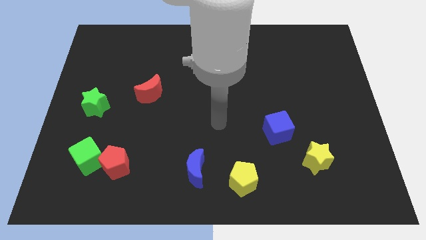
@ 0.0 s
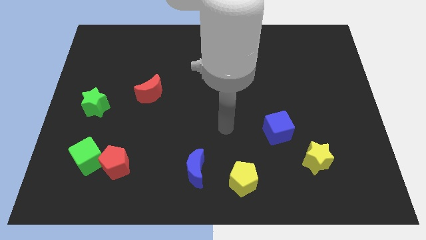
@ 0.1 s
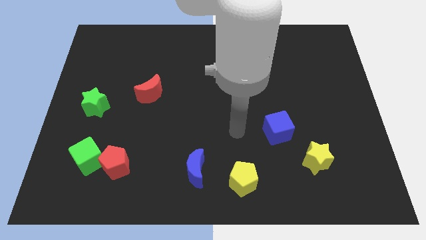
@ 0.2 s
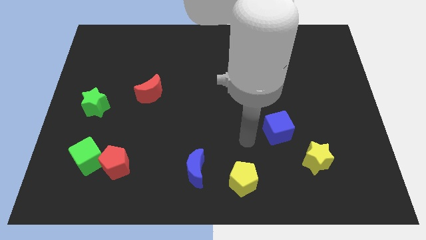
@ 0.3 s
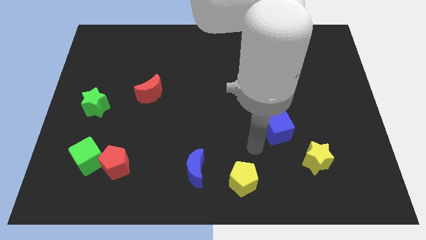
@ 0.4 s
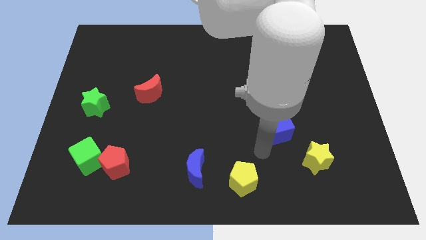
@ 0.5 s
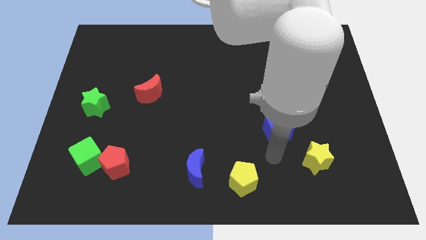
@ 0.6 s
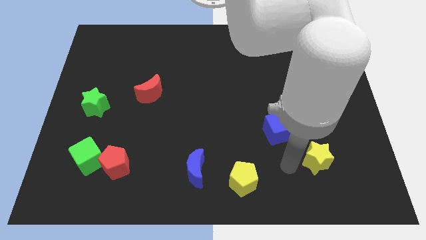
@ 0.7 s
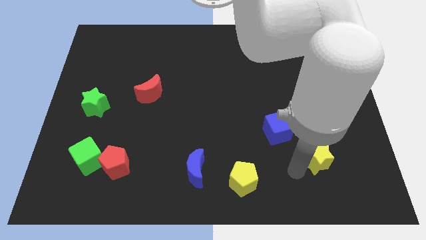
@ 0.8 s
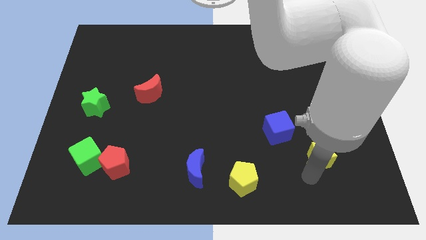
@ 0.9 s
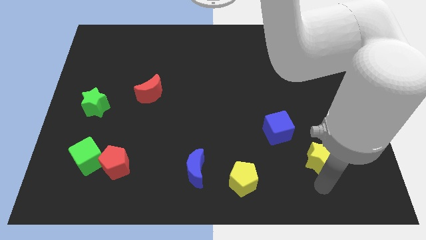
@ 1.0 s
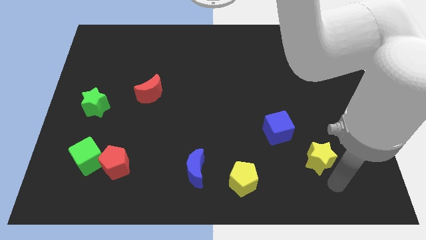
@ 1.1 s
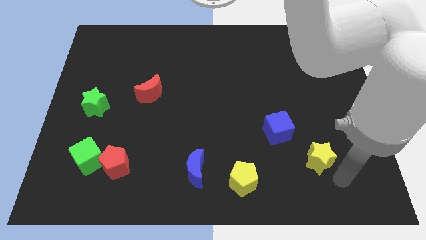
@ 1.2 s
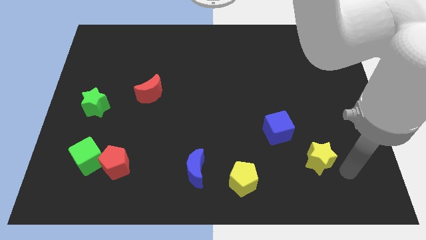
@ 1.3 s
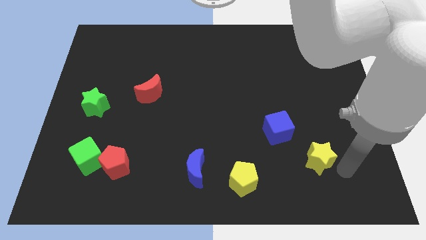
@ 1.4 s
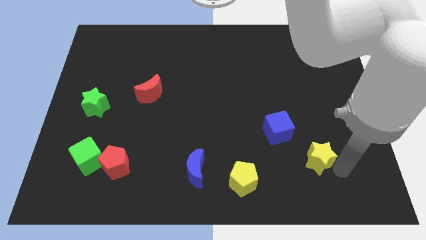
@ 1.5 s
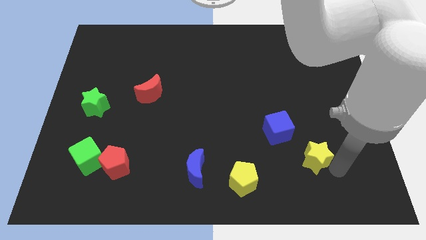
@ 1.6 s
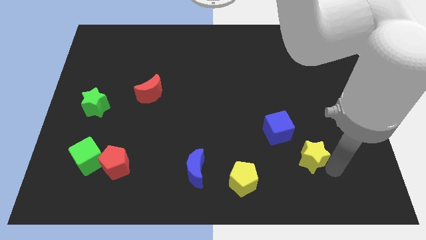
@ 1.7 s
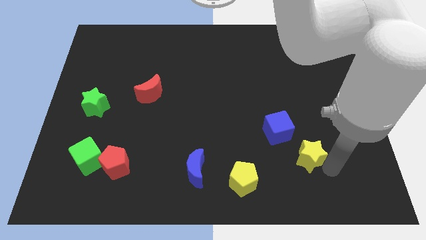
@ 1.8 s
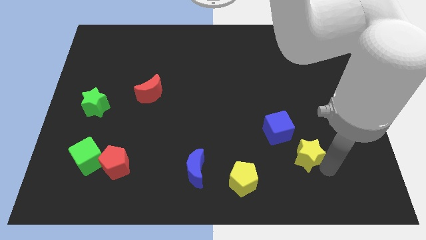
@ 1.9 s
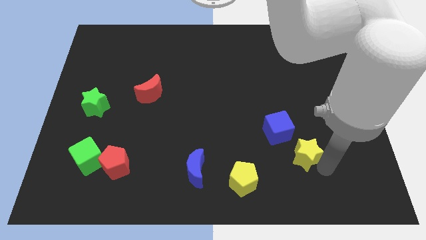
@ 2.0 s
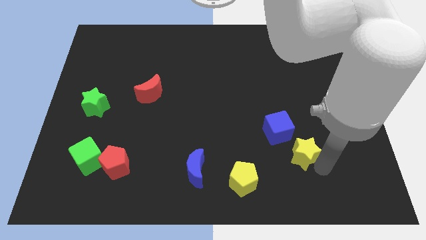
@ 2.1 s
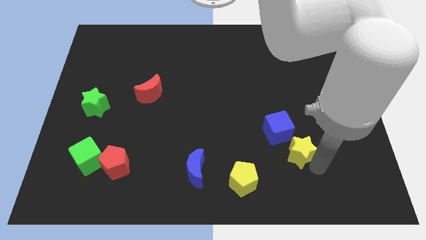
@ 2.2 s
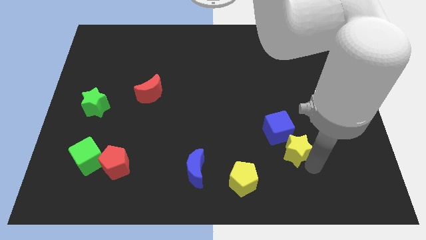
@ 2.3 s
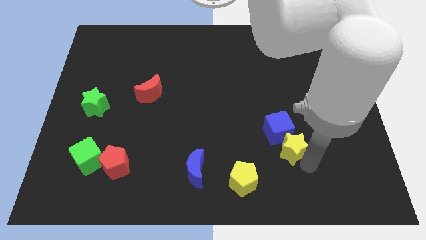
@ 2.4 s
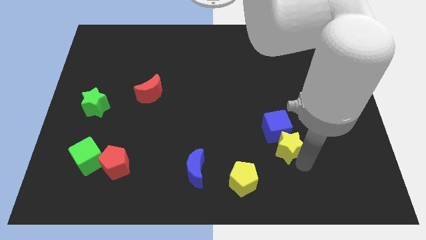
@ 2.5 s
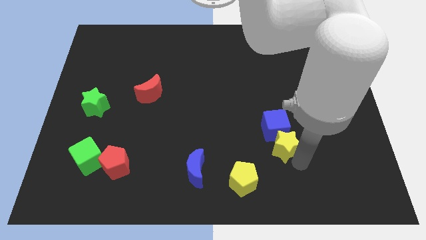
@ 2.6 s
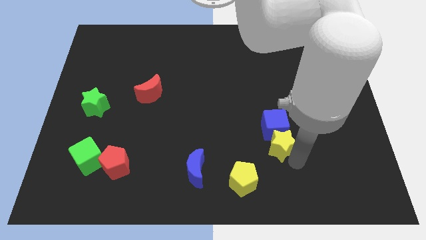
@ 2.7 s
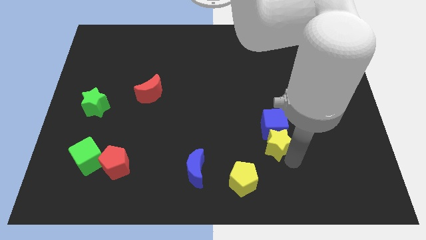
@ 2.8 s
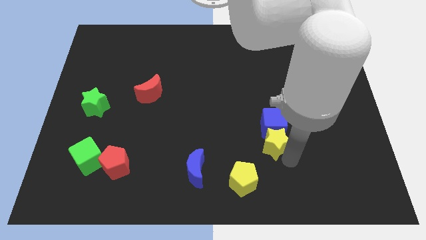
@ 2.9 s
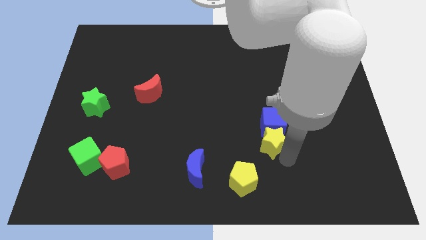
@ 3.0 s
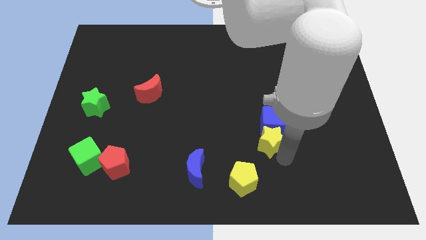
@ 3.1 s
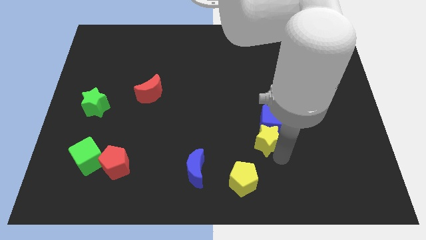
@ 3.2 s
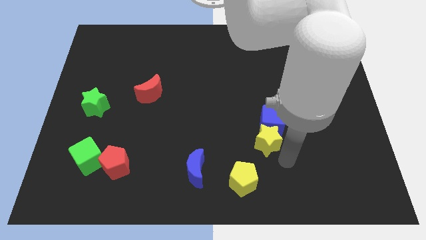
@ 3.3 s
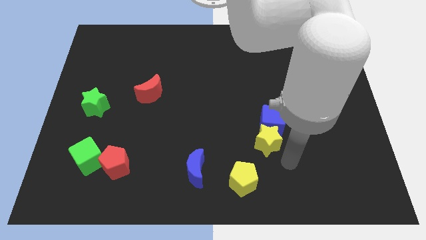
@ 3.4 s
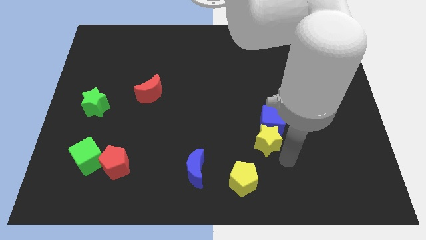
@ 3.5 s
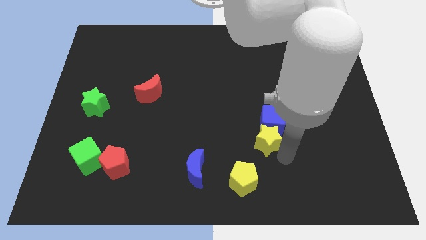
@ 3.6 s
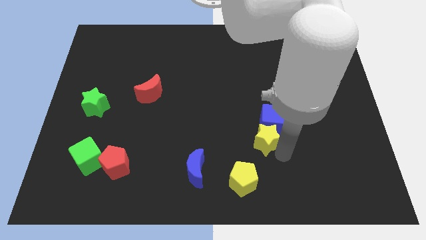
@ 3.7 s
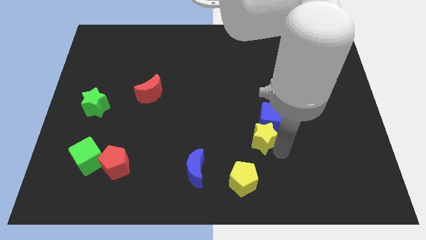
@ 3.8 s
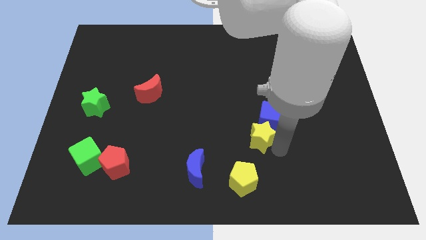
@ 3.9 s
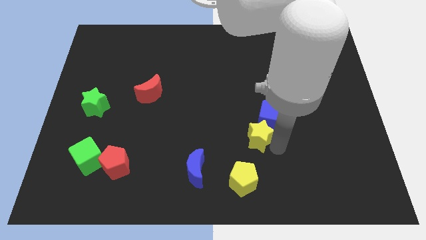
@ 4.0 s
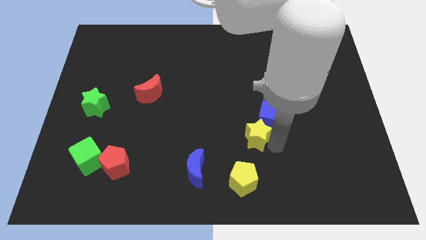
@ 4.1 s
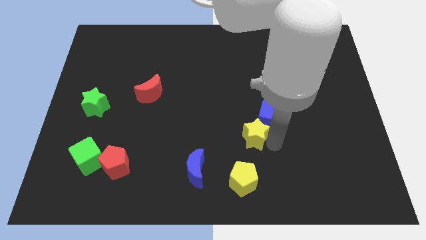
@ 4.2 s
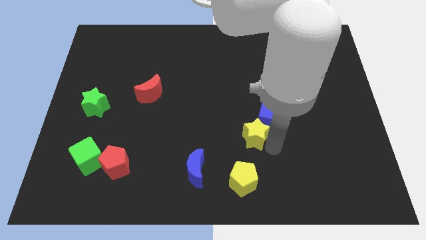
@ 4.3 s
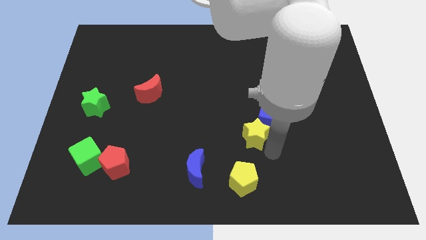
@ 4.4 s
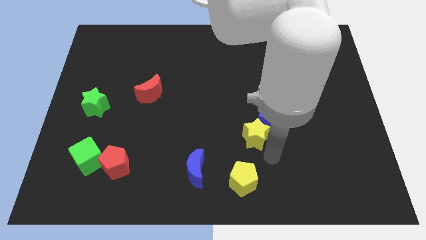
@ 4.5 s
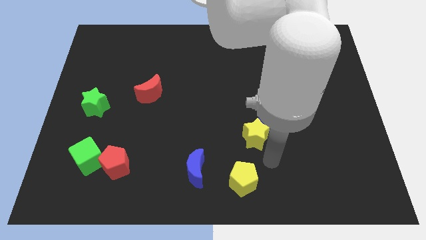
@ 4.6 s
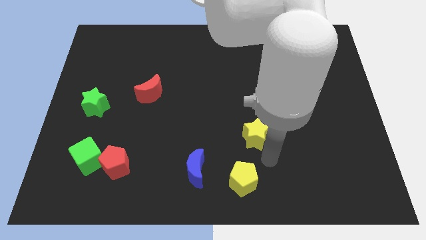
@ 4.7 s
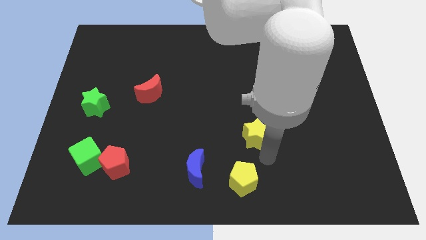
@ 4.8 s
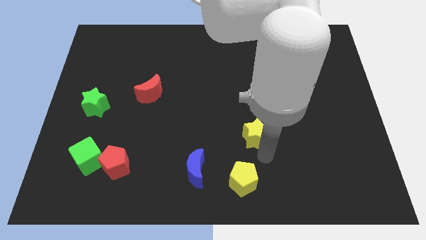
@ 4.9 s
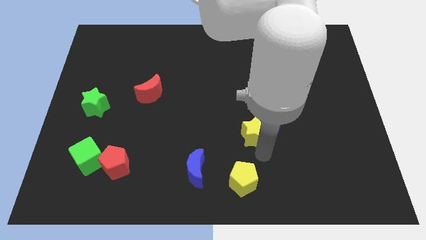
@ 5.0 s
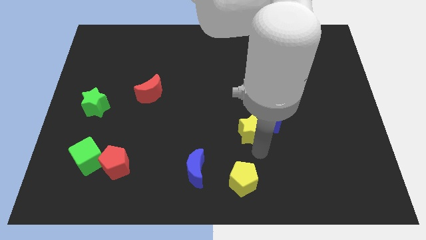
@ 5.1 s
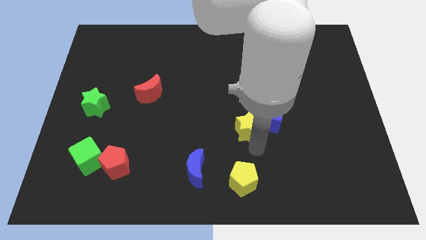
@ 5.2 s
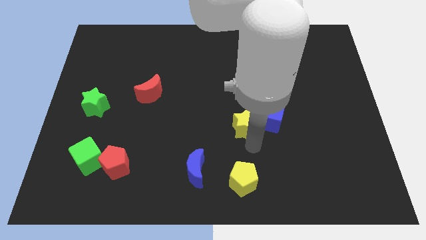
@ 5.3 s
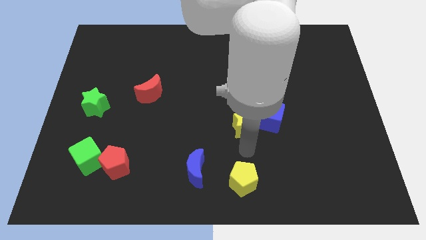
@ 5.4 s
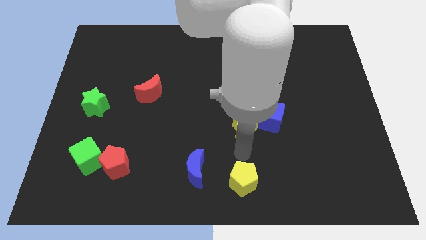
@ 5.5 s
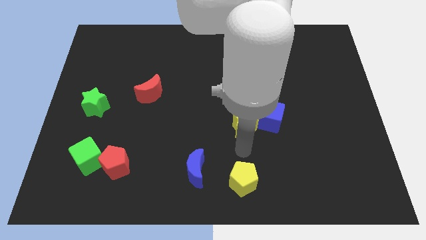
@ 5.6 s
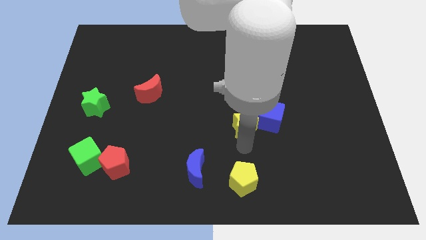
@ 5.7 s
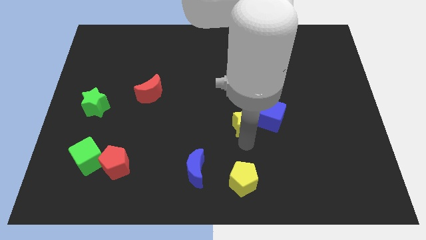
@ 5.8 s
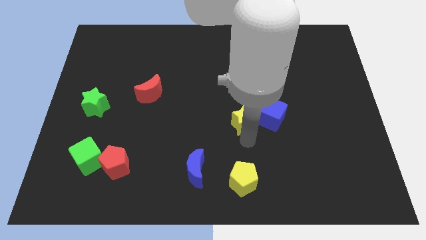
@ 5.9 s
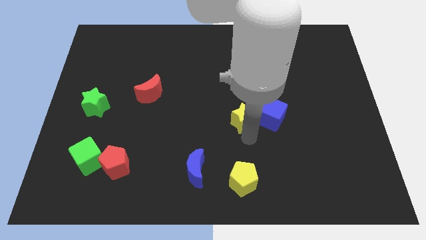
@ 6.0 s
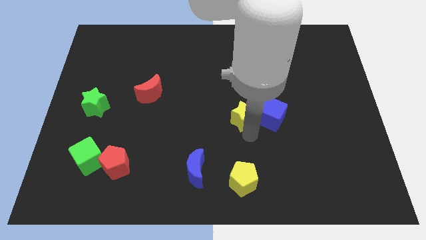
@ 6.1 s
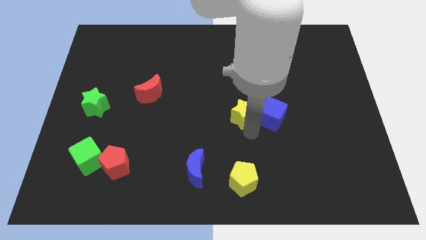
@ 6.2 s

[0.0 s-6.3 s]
put the yellow star to the top left of the blue cube

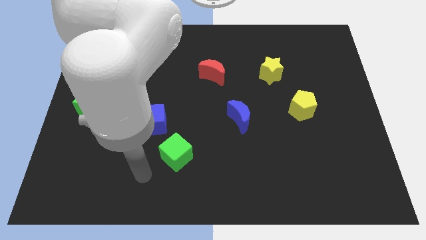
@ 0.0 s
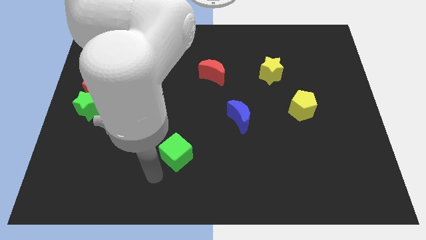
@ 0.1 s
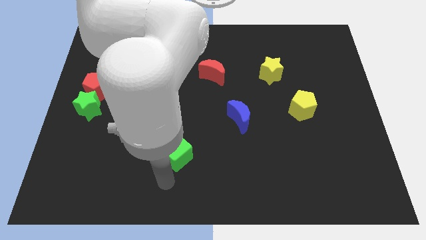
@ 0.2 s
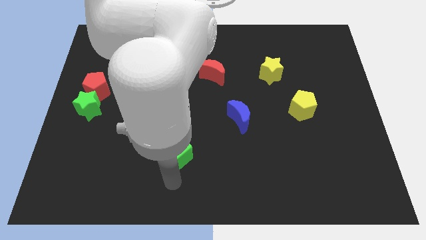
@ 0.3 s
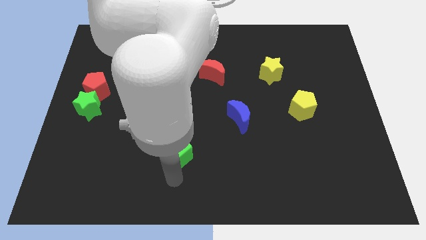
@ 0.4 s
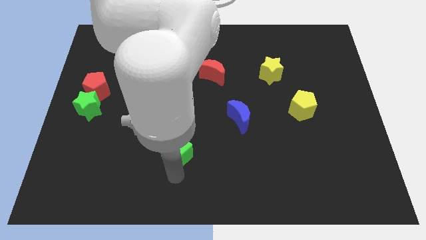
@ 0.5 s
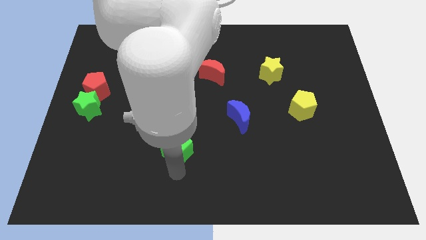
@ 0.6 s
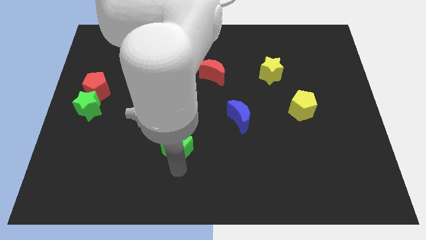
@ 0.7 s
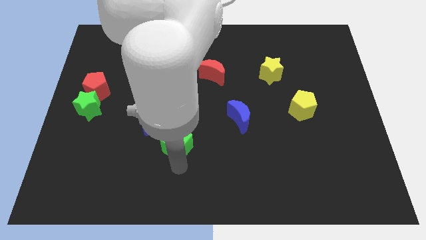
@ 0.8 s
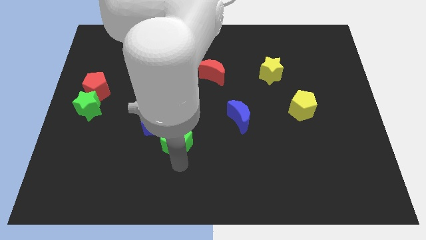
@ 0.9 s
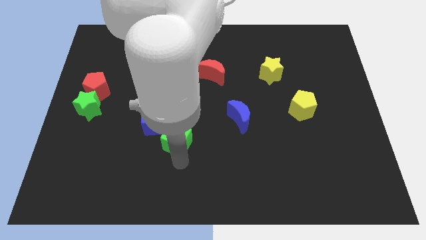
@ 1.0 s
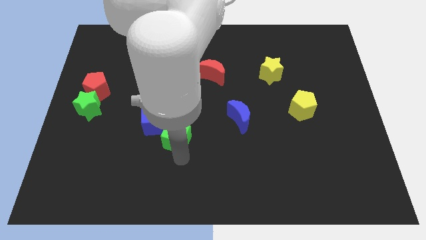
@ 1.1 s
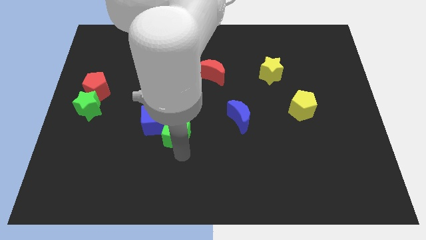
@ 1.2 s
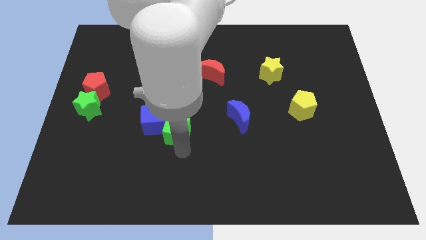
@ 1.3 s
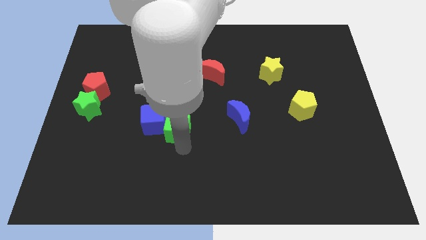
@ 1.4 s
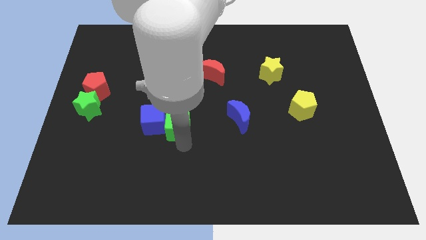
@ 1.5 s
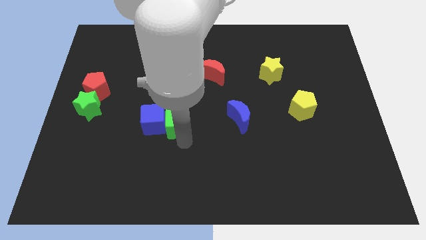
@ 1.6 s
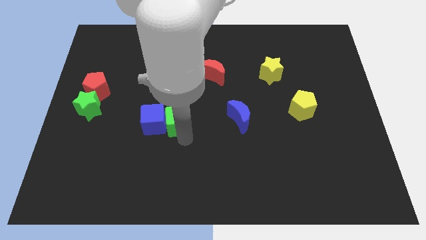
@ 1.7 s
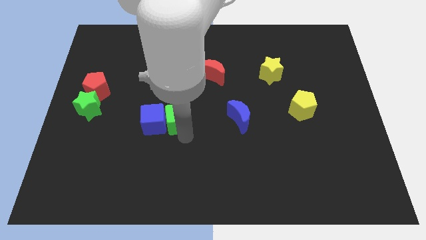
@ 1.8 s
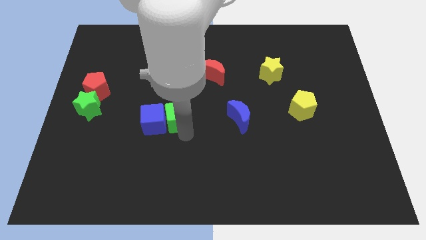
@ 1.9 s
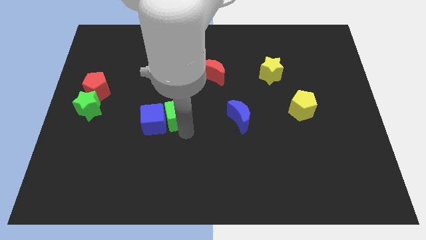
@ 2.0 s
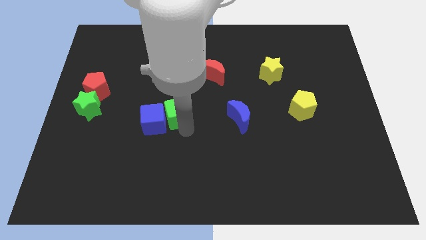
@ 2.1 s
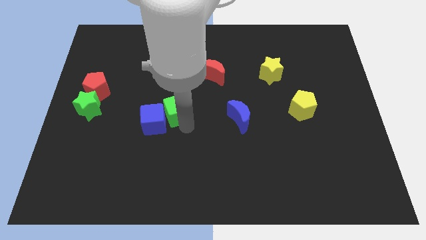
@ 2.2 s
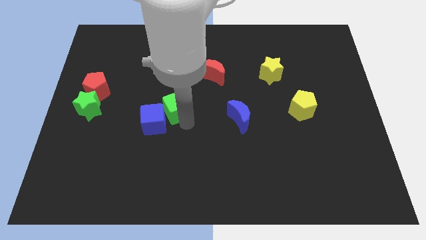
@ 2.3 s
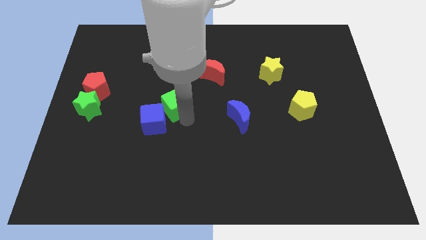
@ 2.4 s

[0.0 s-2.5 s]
push the green cube to the top of the blue cube
